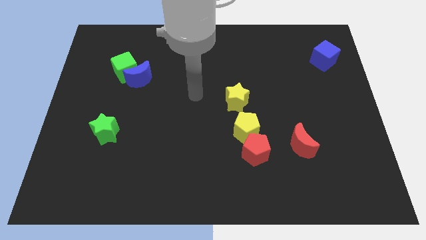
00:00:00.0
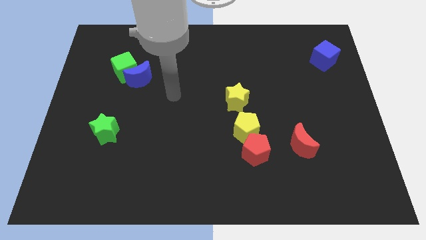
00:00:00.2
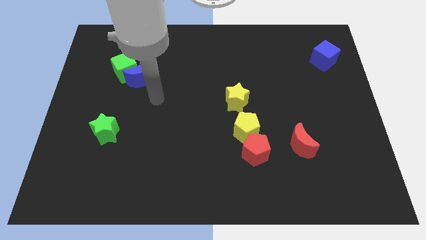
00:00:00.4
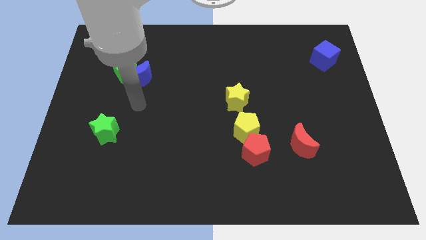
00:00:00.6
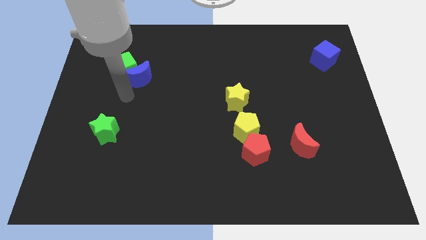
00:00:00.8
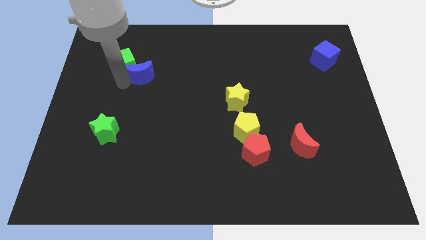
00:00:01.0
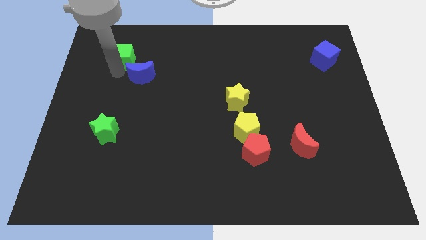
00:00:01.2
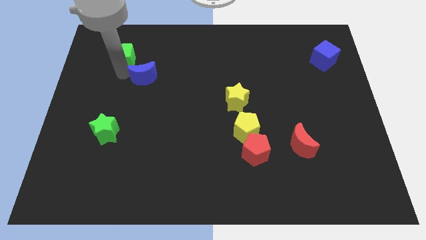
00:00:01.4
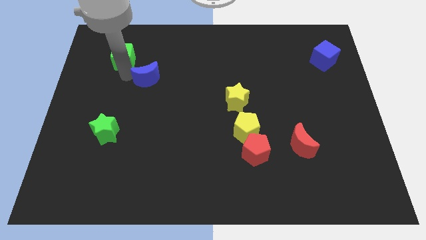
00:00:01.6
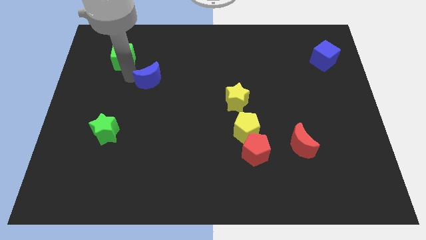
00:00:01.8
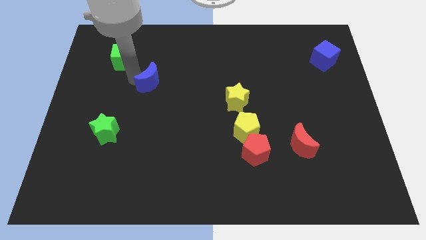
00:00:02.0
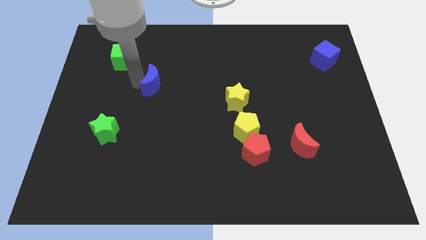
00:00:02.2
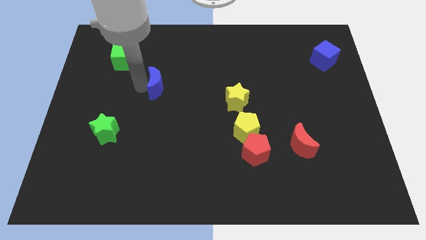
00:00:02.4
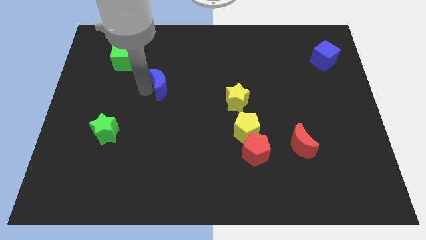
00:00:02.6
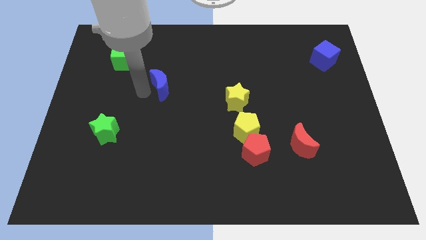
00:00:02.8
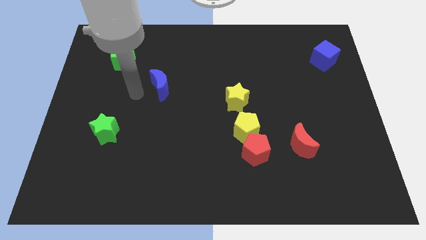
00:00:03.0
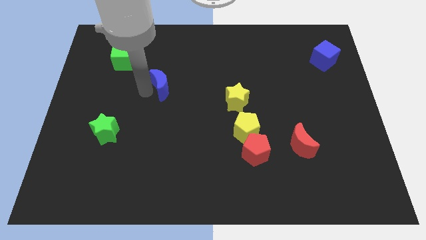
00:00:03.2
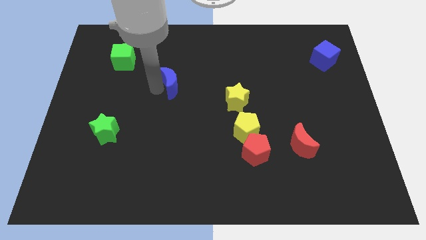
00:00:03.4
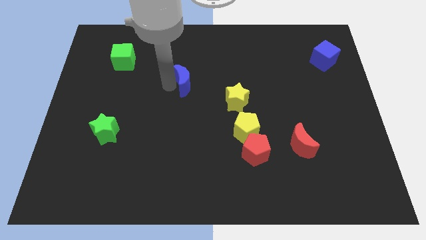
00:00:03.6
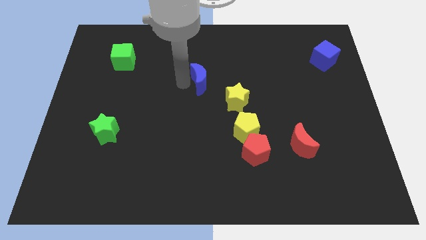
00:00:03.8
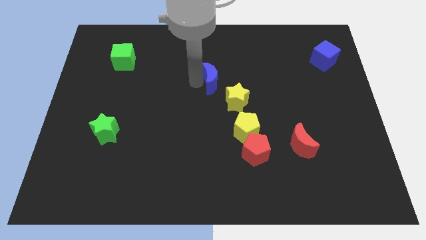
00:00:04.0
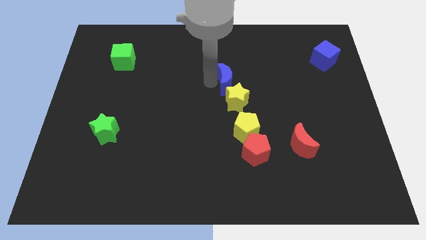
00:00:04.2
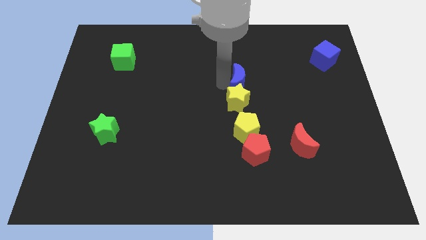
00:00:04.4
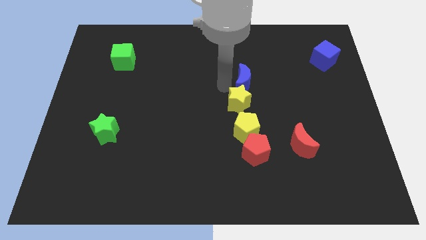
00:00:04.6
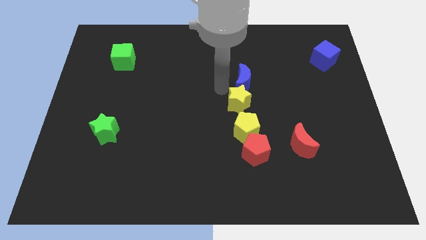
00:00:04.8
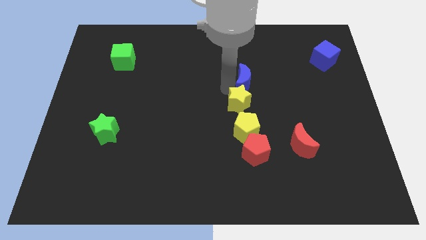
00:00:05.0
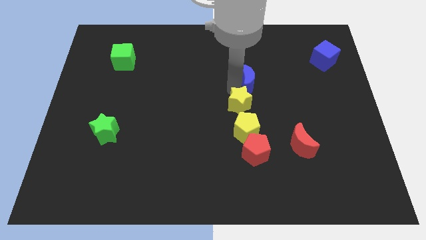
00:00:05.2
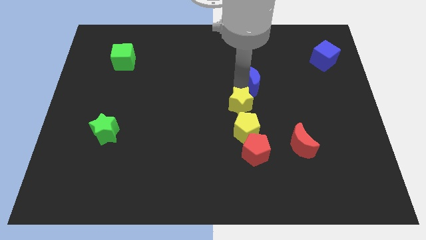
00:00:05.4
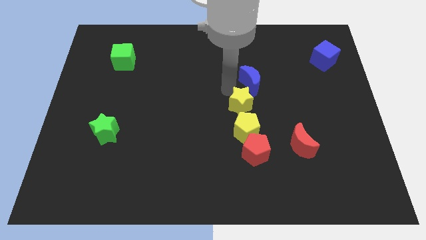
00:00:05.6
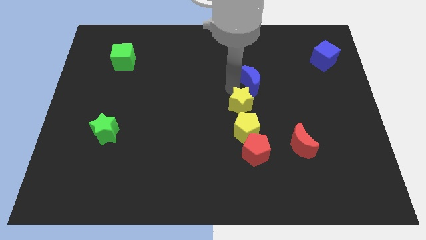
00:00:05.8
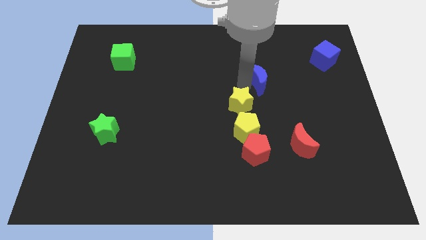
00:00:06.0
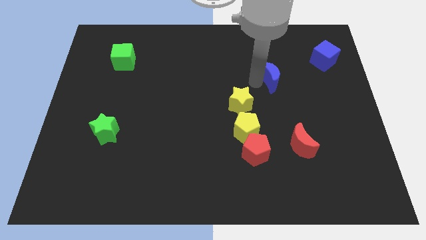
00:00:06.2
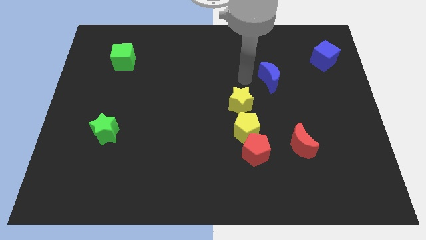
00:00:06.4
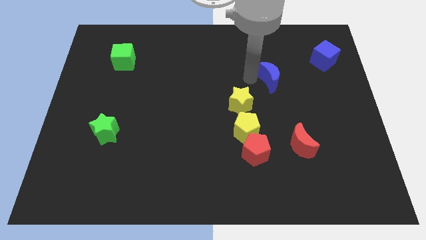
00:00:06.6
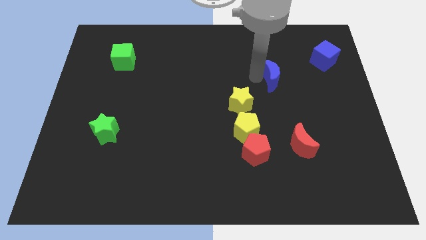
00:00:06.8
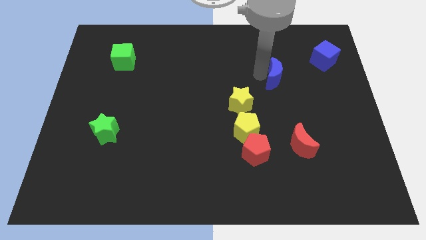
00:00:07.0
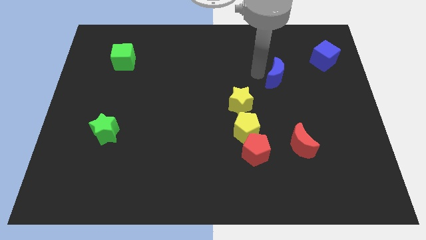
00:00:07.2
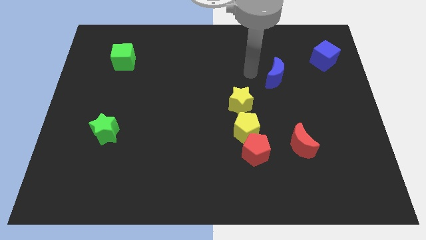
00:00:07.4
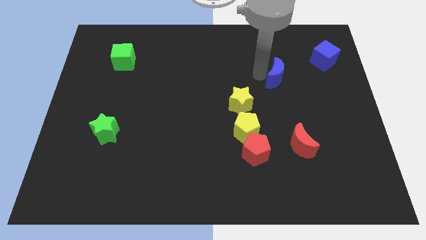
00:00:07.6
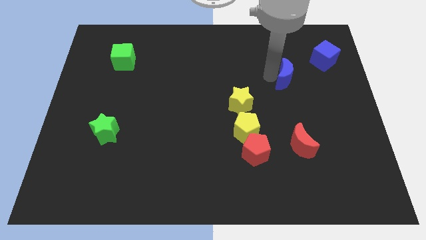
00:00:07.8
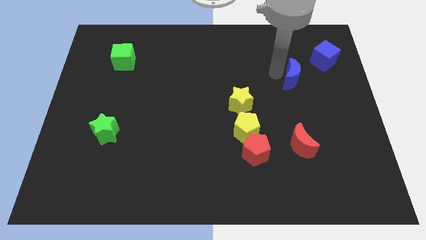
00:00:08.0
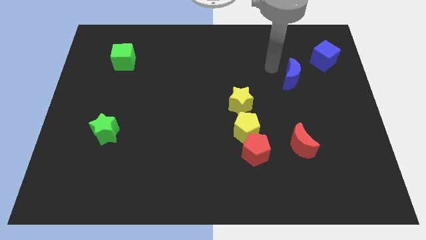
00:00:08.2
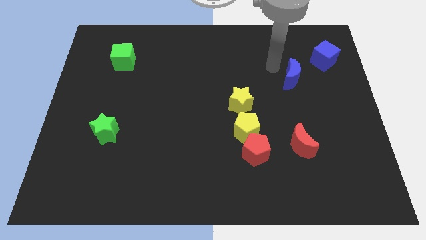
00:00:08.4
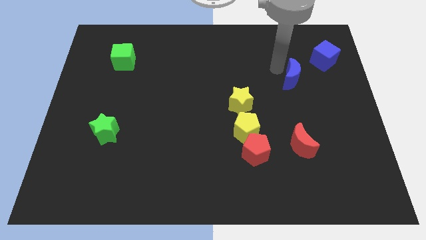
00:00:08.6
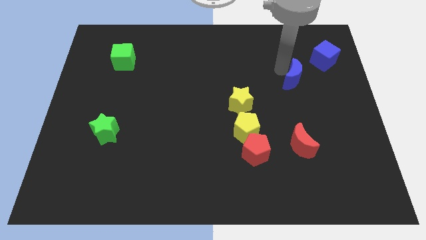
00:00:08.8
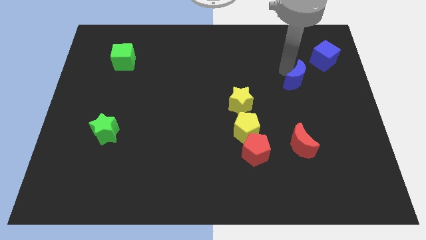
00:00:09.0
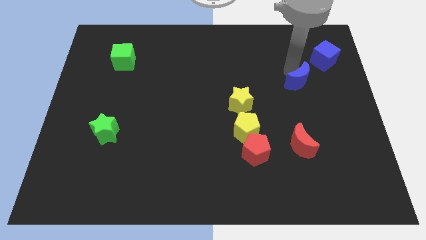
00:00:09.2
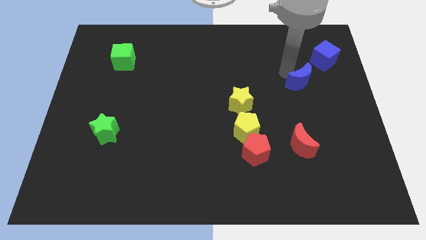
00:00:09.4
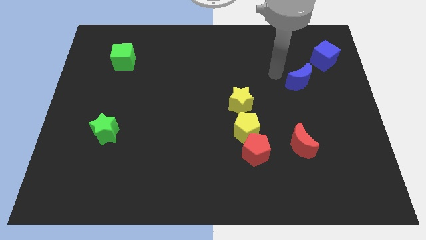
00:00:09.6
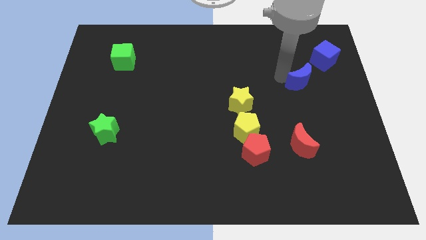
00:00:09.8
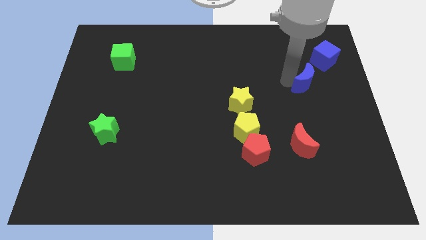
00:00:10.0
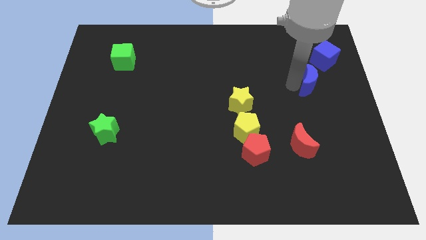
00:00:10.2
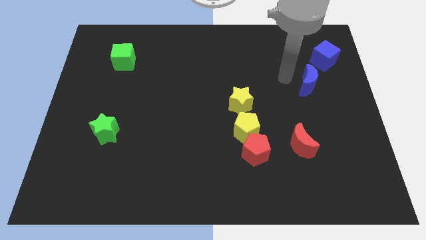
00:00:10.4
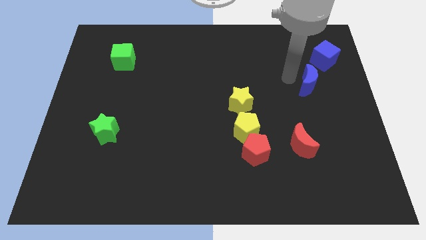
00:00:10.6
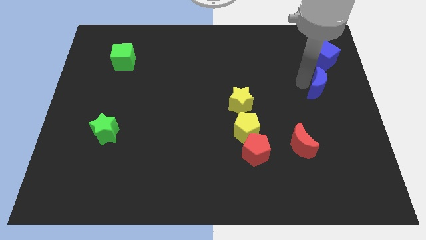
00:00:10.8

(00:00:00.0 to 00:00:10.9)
move the blue moon to the center right

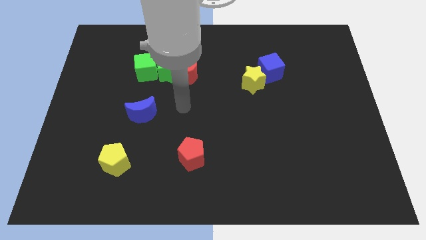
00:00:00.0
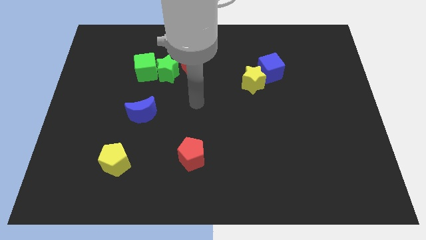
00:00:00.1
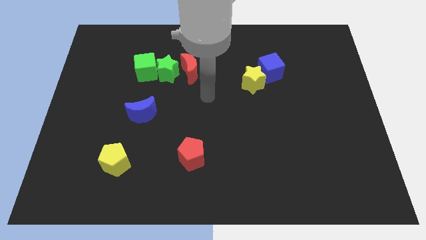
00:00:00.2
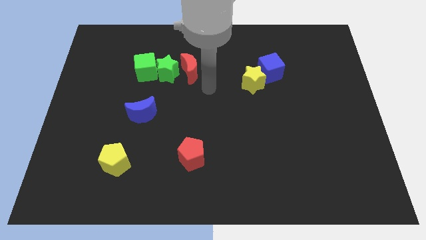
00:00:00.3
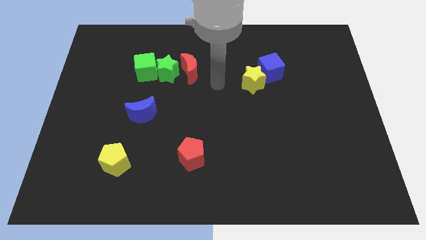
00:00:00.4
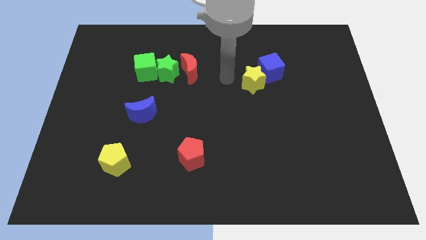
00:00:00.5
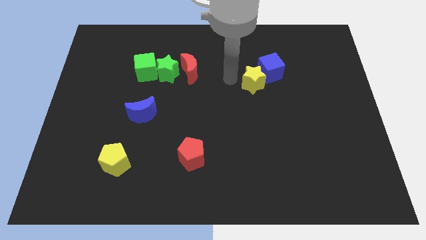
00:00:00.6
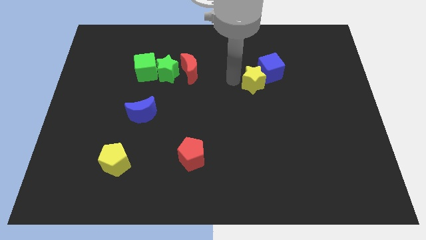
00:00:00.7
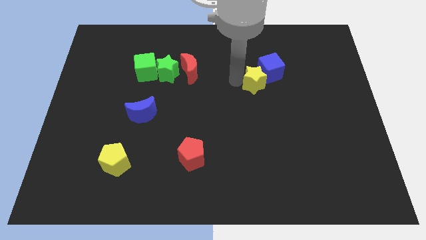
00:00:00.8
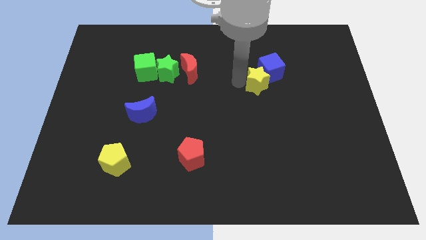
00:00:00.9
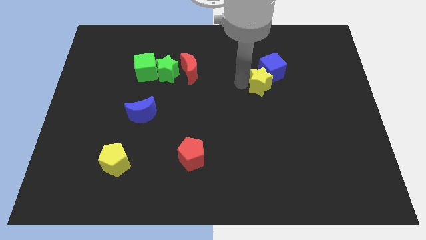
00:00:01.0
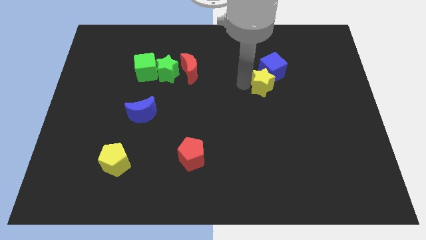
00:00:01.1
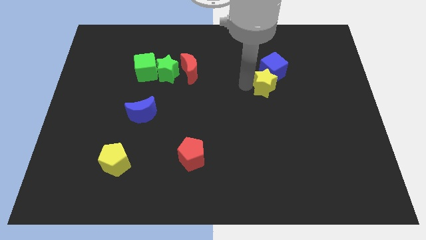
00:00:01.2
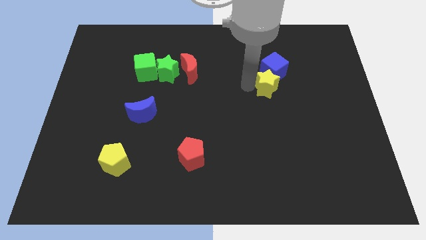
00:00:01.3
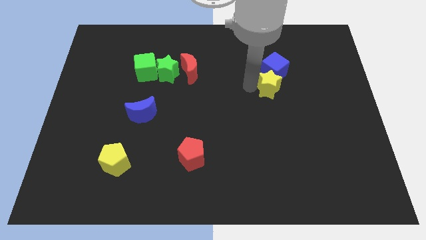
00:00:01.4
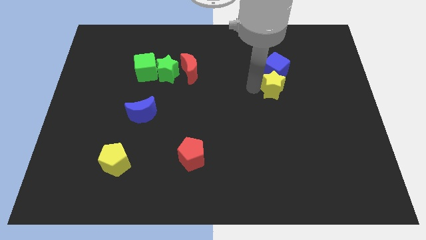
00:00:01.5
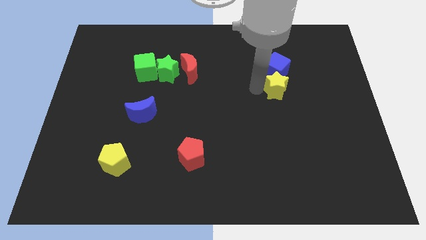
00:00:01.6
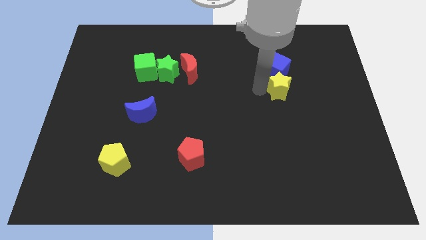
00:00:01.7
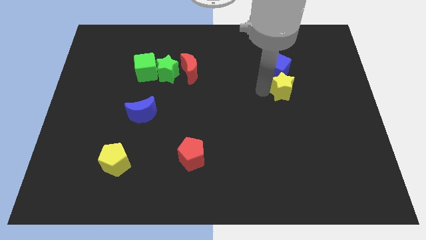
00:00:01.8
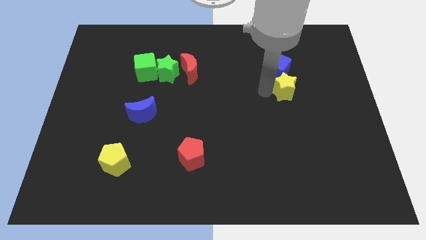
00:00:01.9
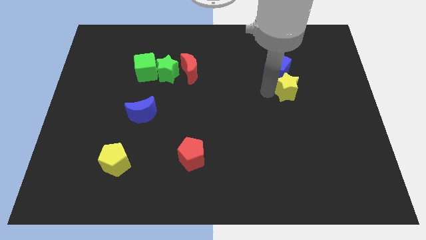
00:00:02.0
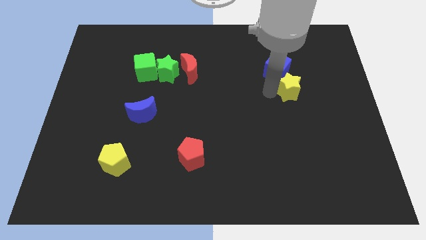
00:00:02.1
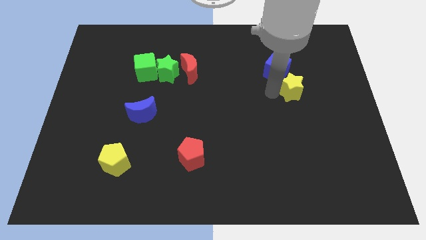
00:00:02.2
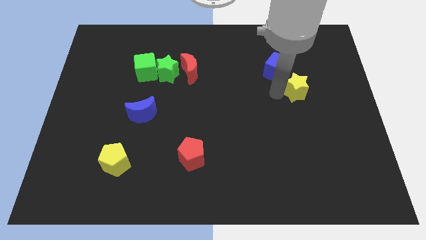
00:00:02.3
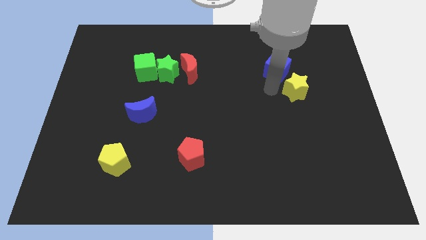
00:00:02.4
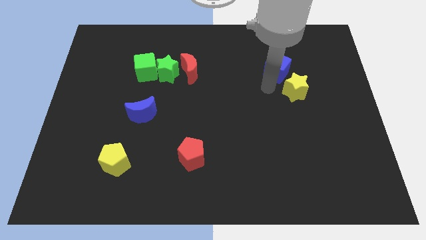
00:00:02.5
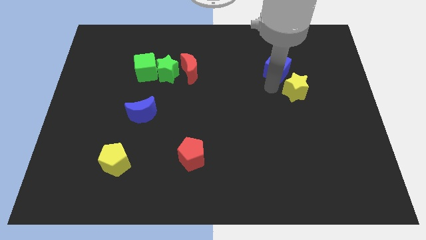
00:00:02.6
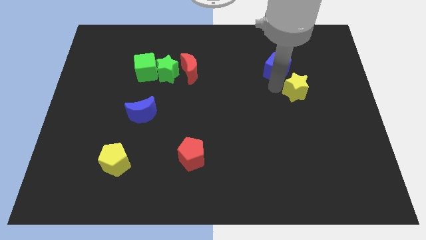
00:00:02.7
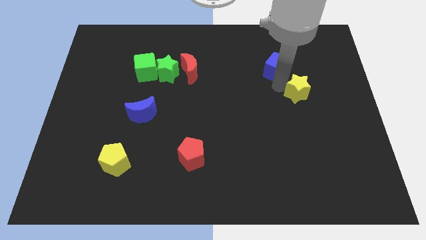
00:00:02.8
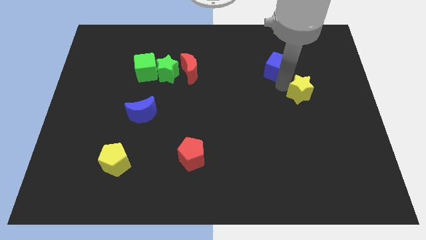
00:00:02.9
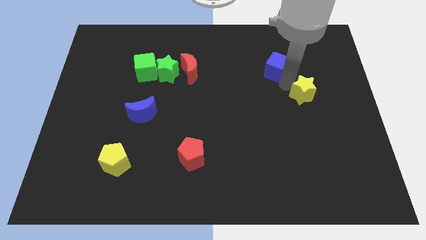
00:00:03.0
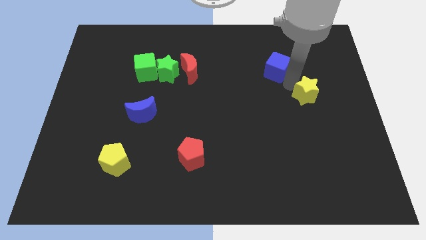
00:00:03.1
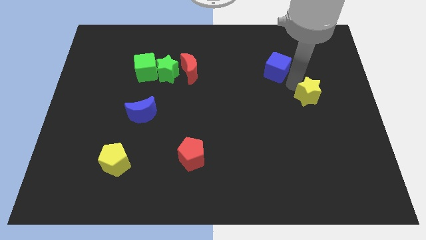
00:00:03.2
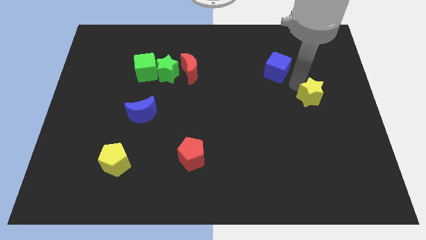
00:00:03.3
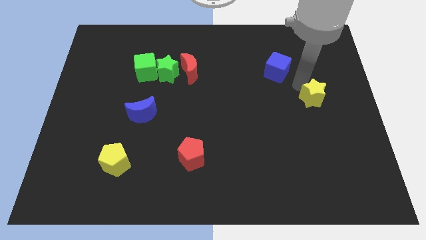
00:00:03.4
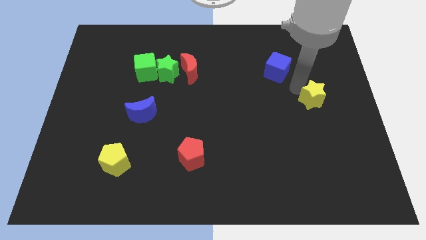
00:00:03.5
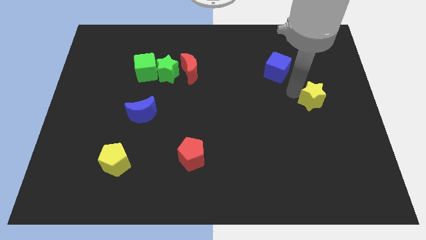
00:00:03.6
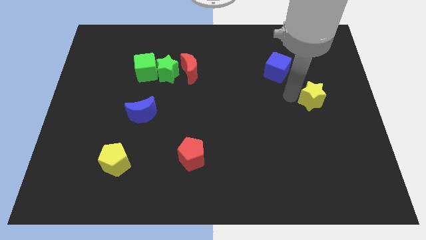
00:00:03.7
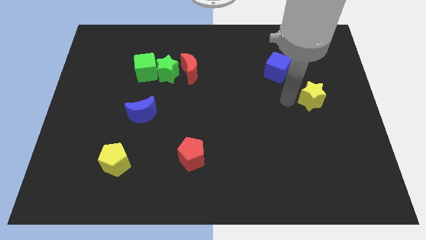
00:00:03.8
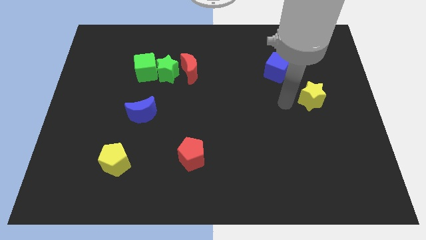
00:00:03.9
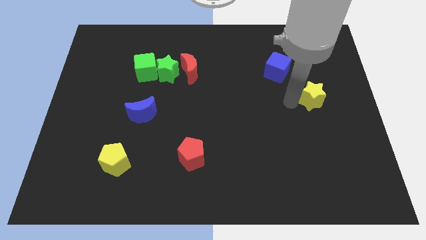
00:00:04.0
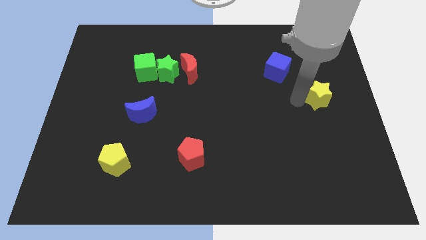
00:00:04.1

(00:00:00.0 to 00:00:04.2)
move the yellow star to the center right
